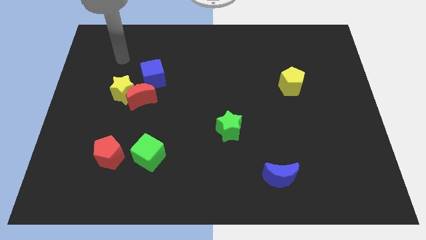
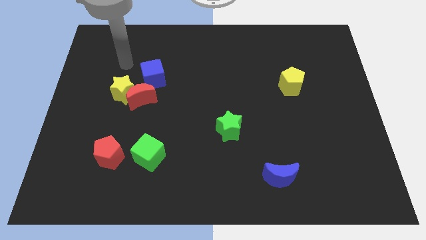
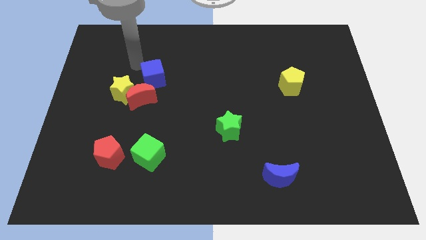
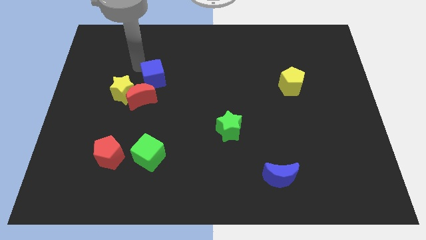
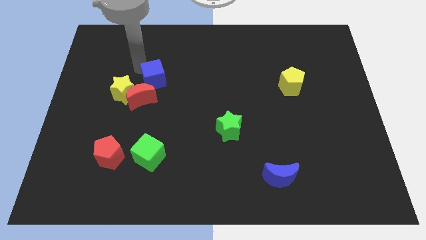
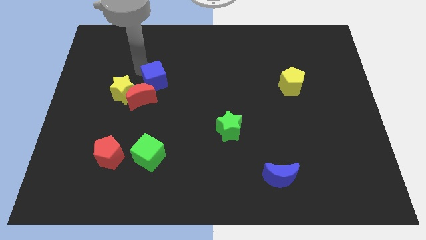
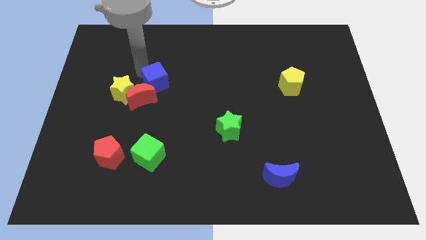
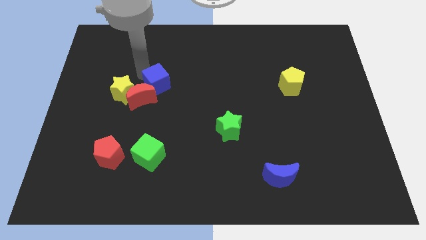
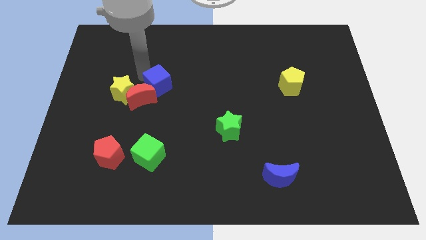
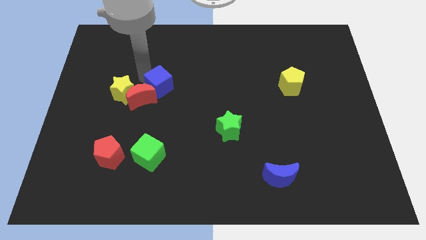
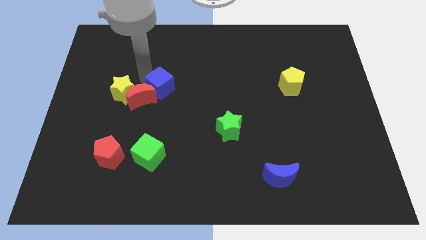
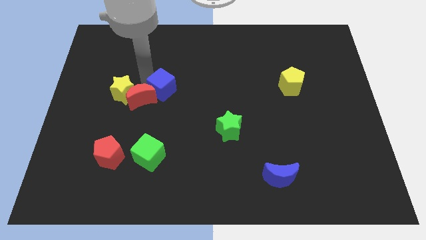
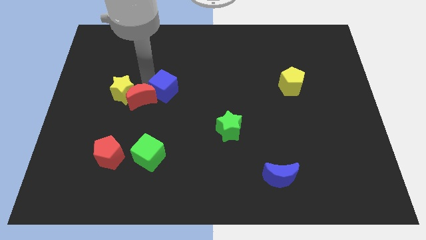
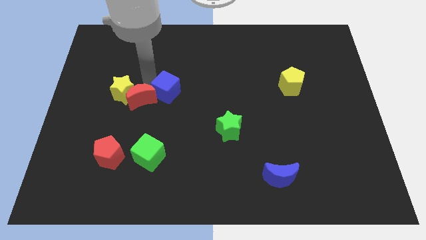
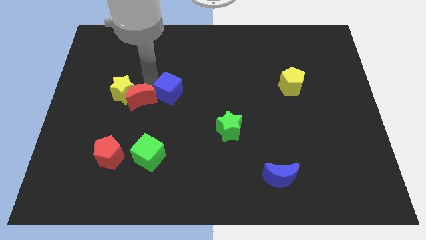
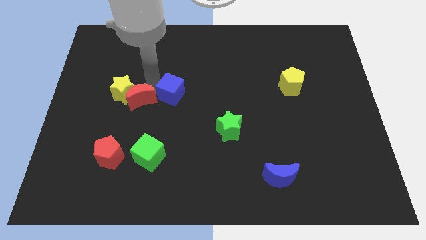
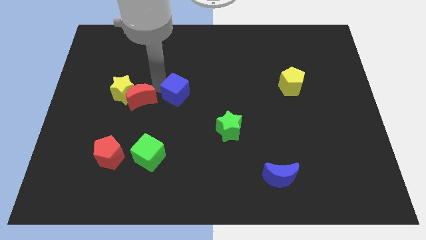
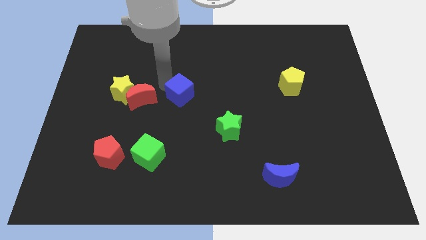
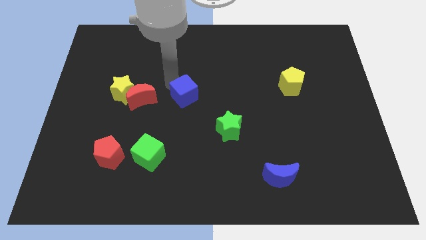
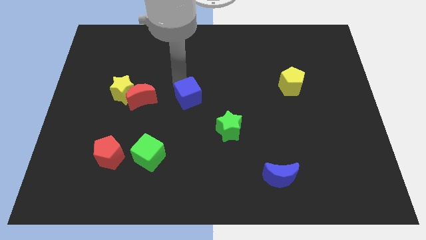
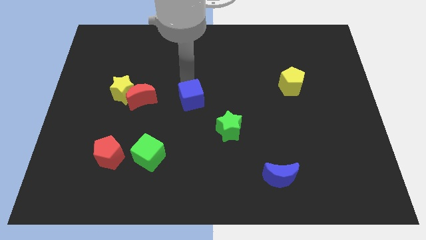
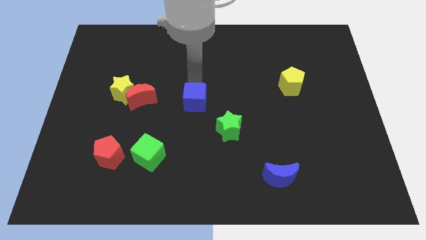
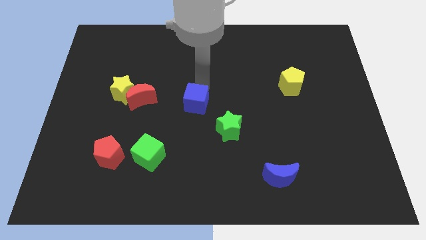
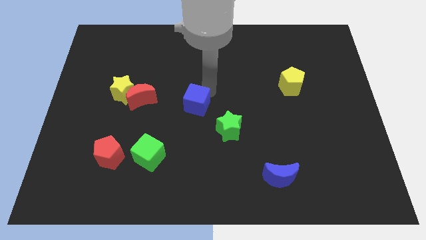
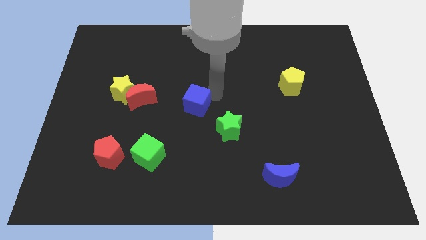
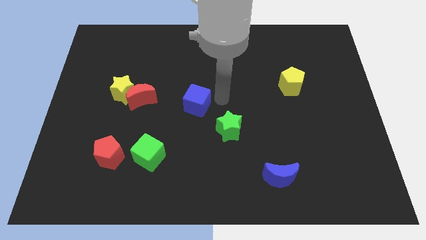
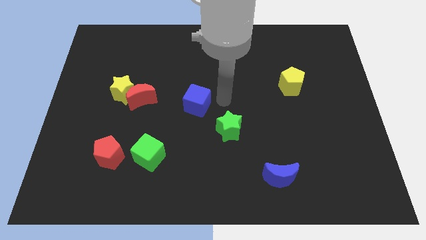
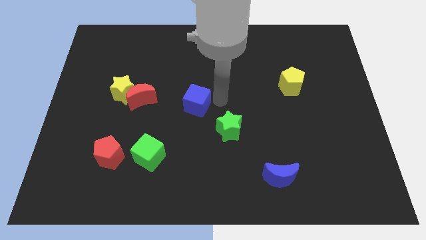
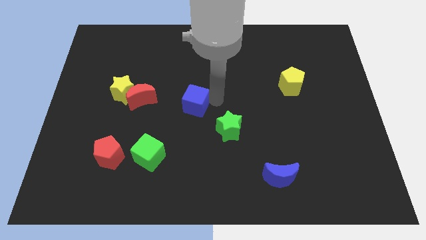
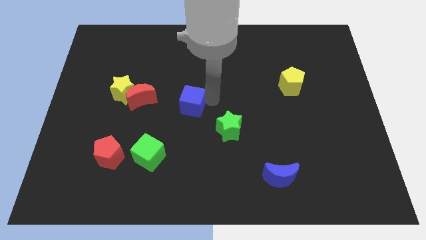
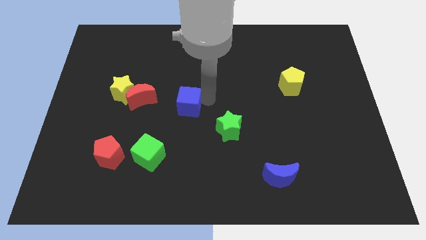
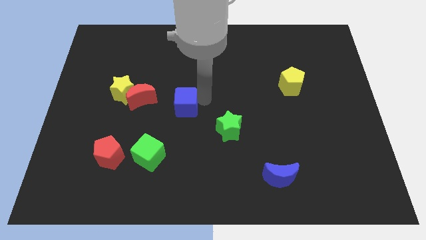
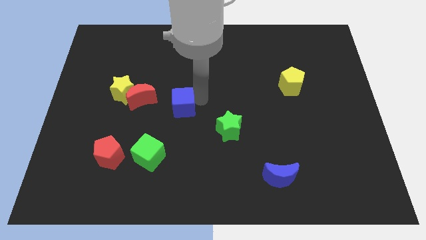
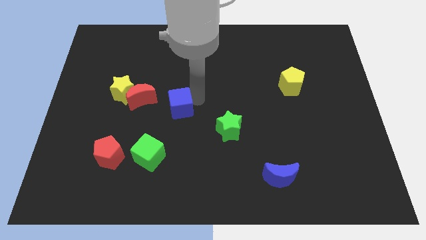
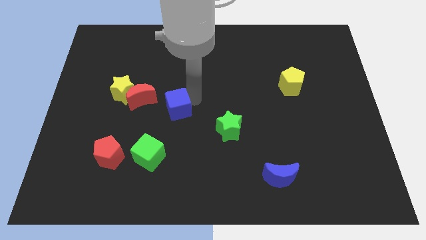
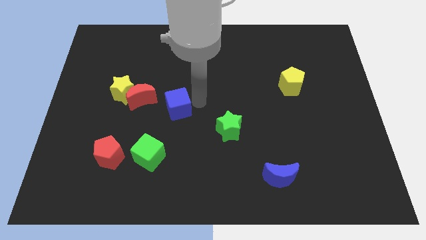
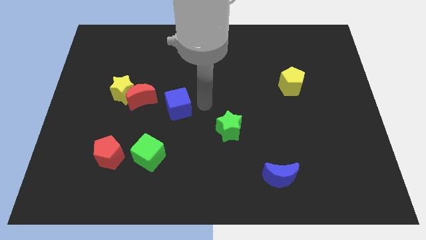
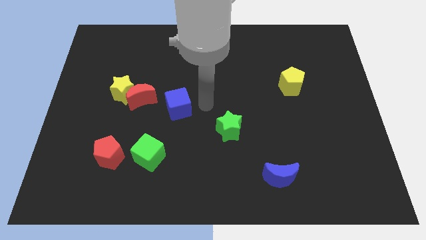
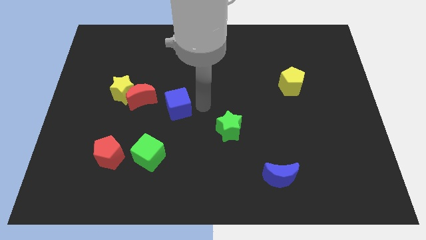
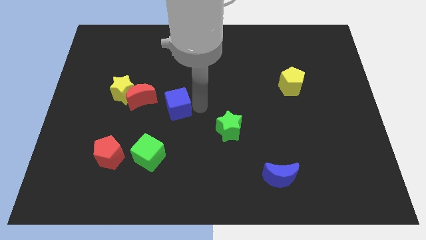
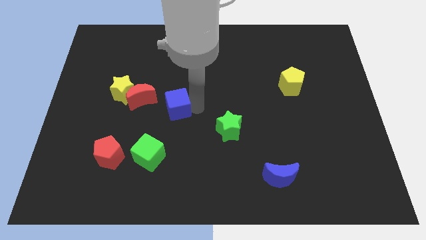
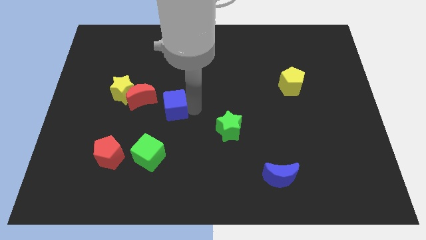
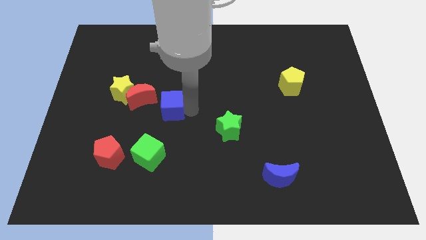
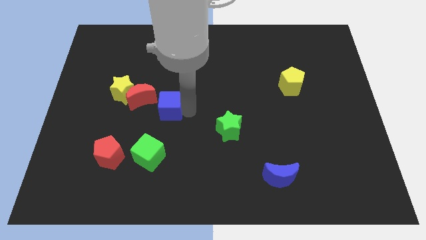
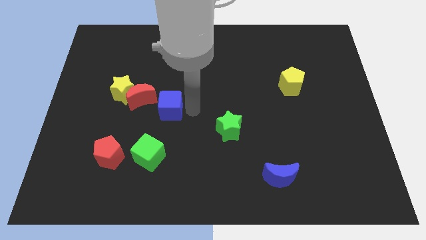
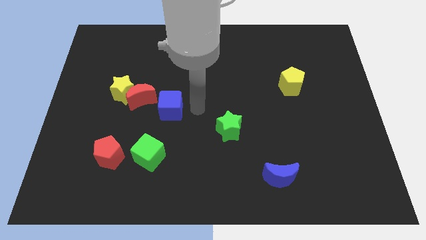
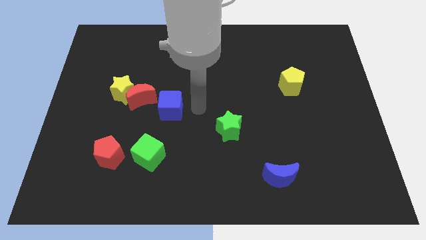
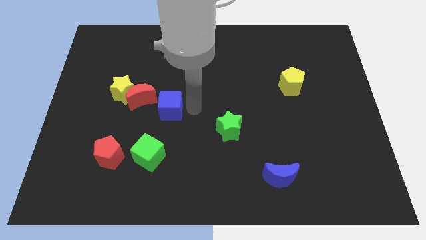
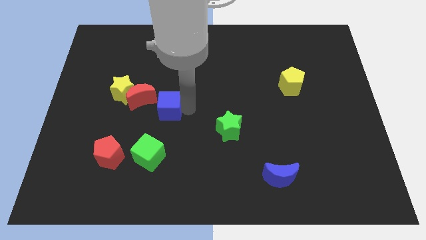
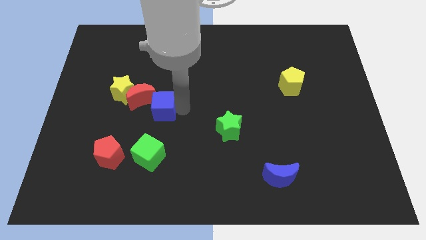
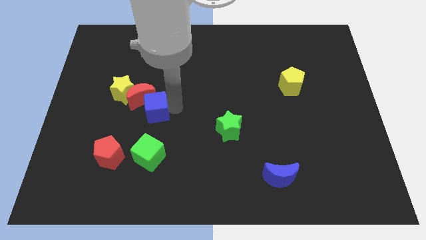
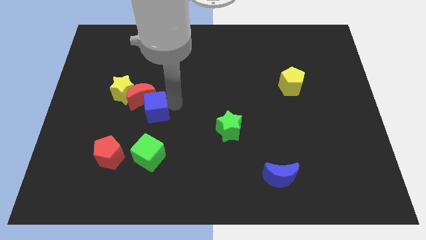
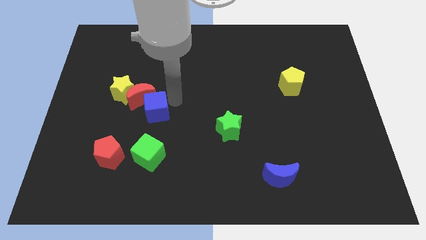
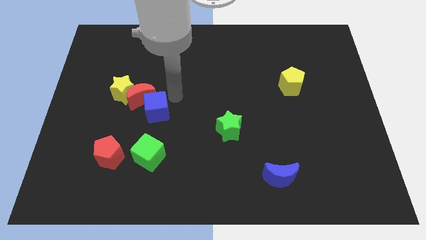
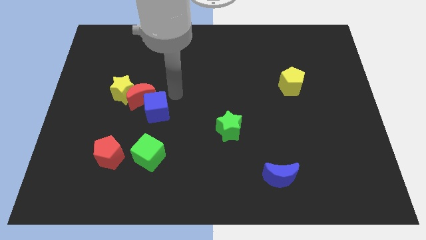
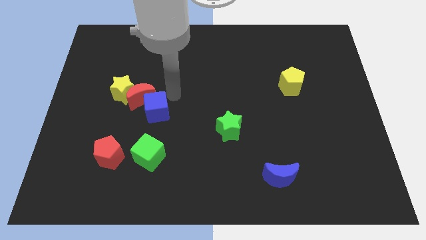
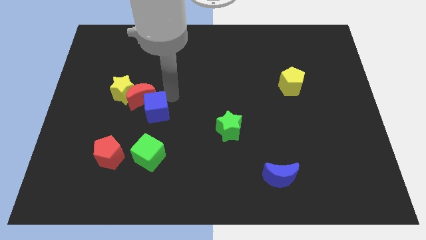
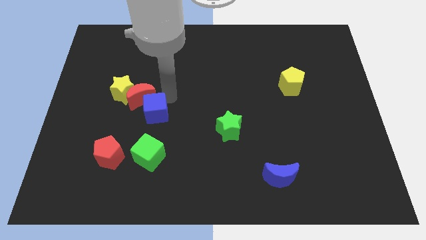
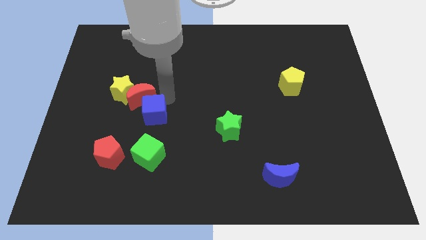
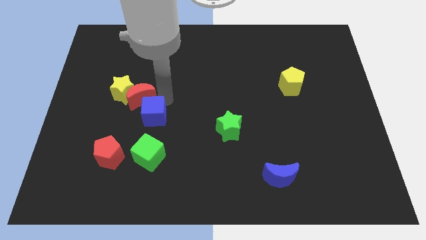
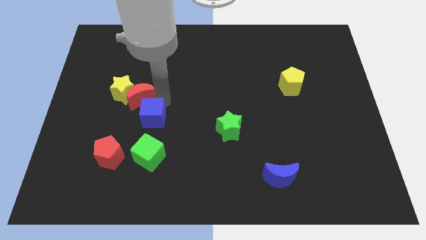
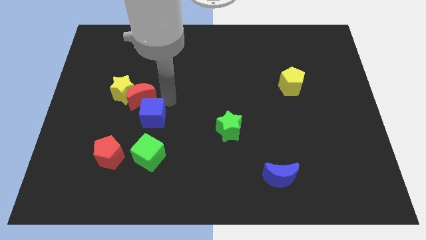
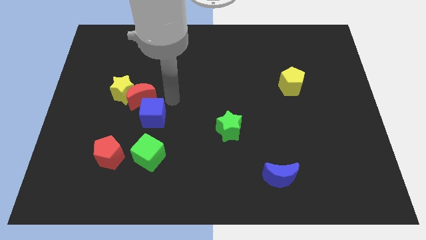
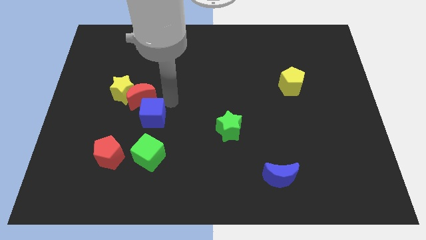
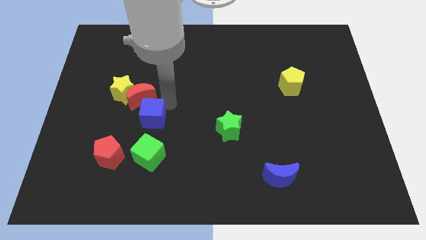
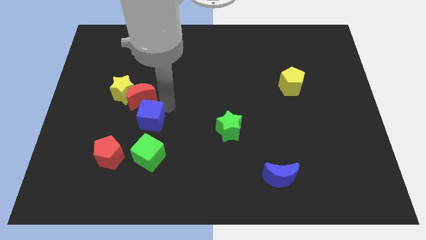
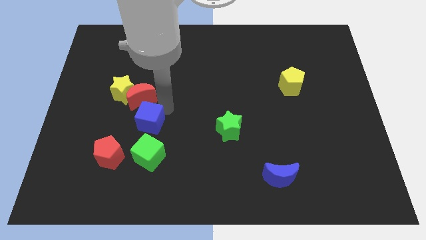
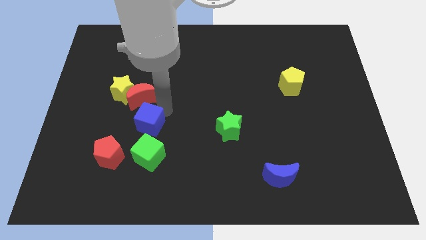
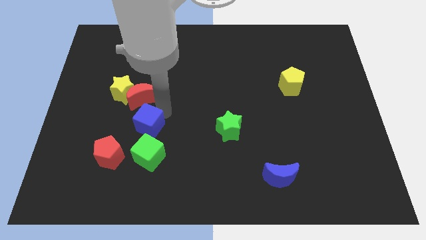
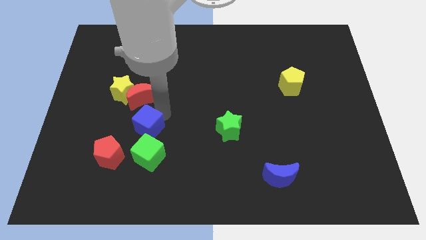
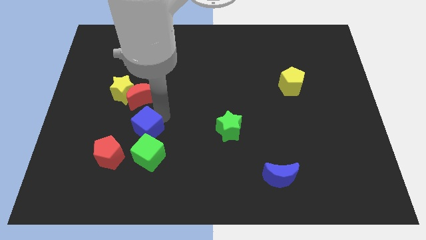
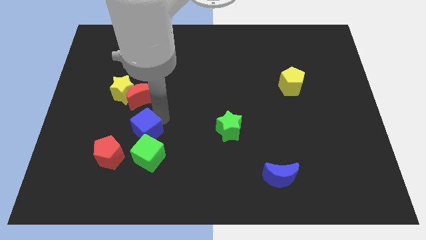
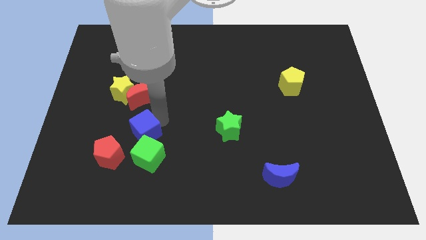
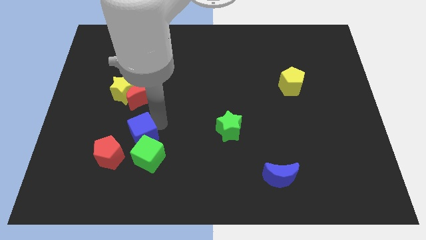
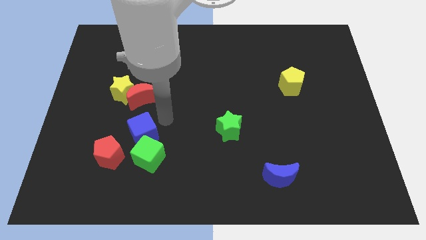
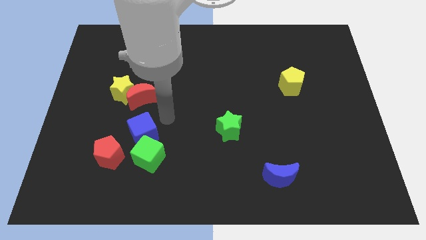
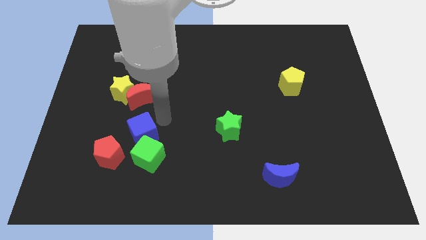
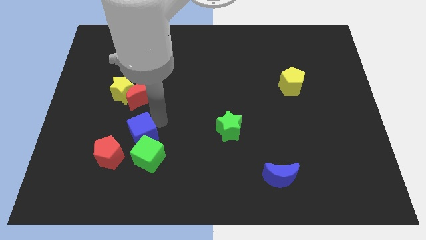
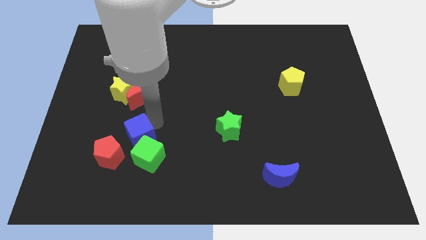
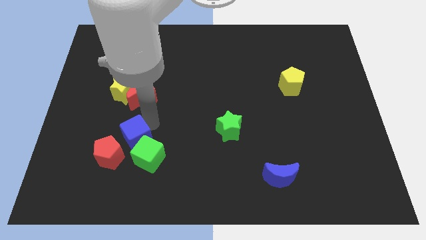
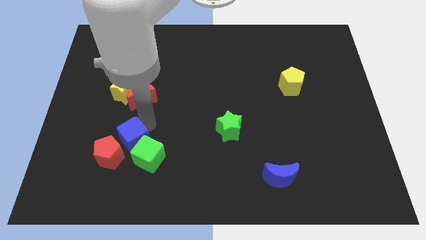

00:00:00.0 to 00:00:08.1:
put the blue cube close to the red pentagon
